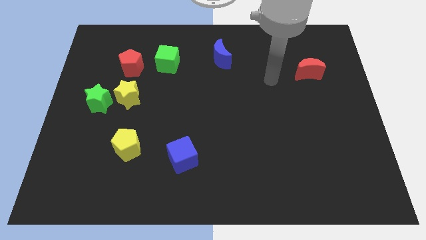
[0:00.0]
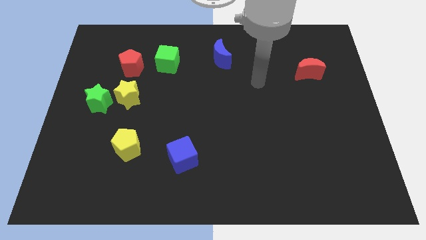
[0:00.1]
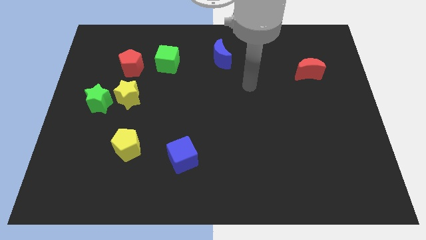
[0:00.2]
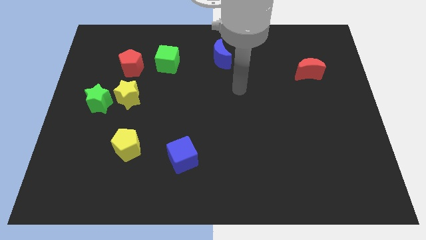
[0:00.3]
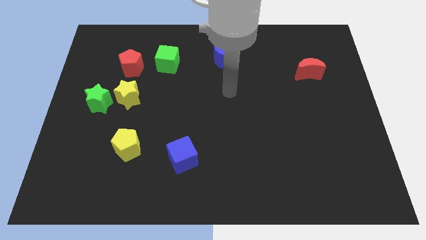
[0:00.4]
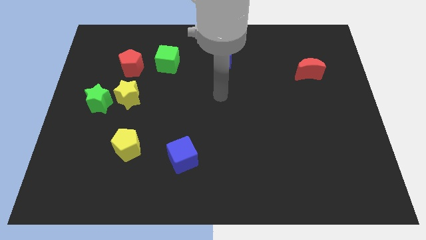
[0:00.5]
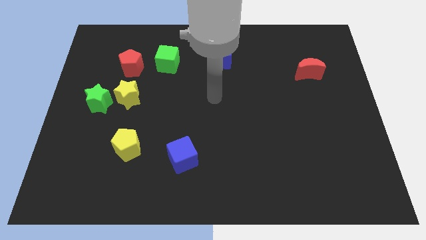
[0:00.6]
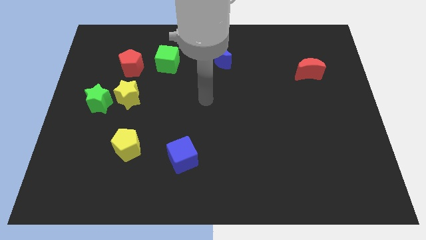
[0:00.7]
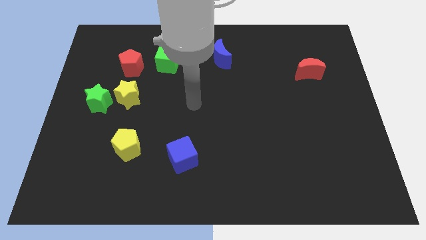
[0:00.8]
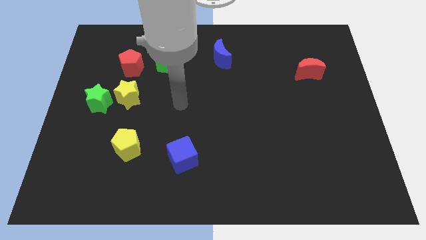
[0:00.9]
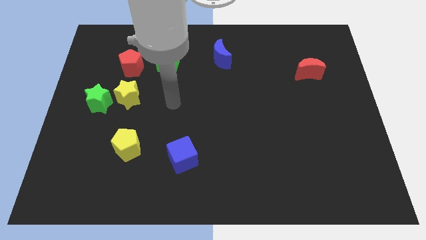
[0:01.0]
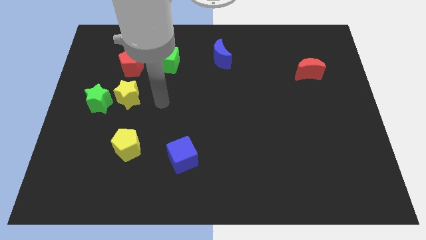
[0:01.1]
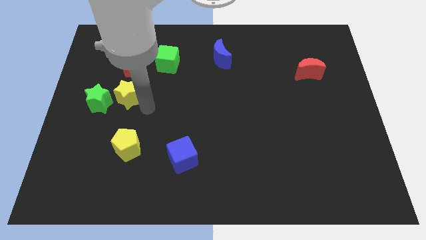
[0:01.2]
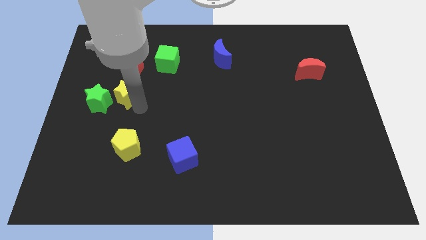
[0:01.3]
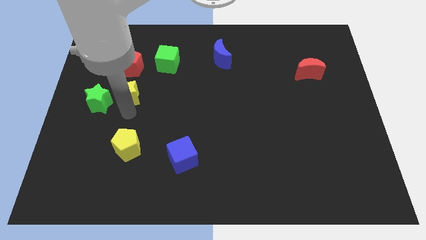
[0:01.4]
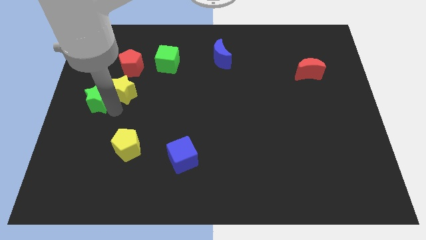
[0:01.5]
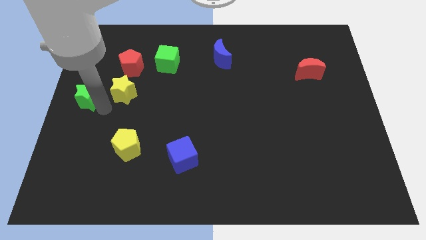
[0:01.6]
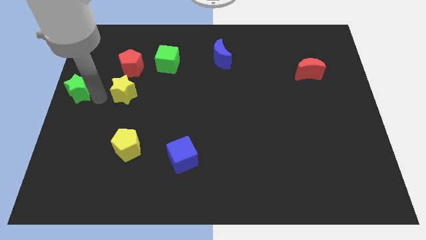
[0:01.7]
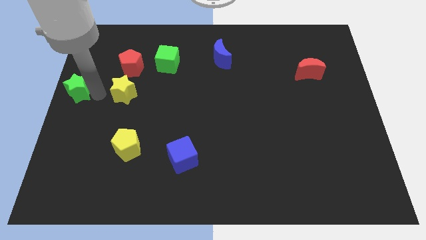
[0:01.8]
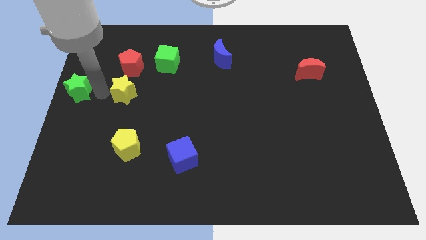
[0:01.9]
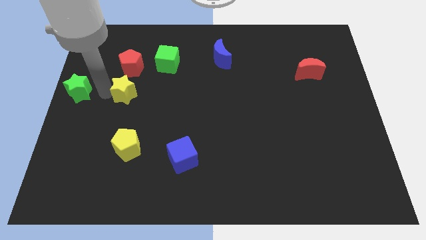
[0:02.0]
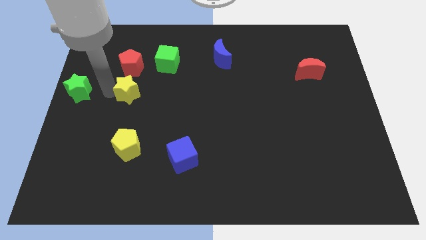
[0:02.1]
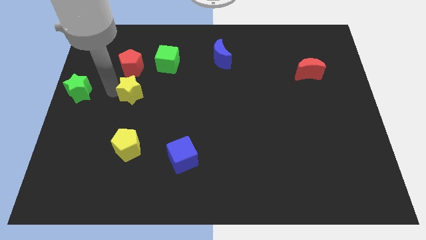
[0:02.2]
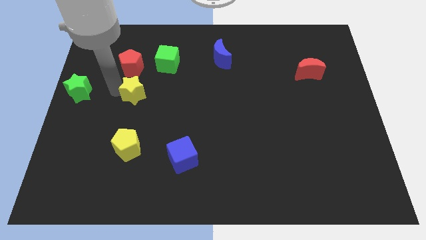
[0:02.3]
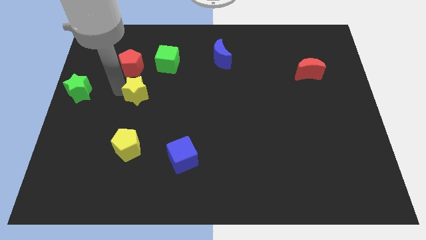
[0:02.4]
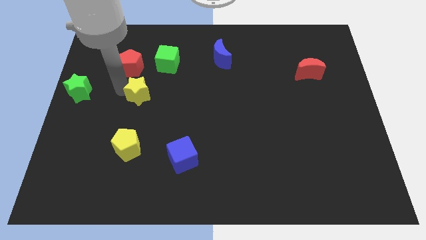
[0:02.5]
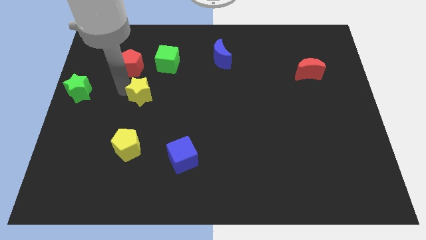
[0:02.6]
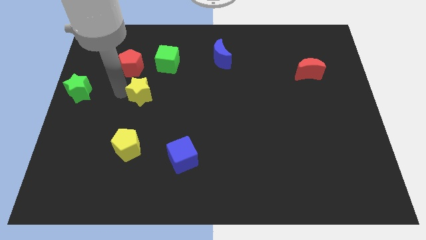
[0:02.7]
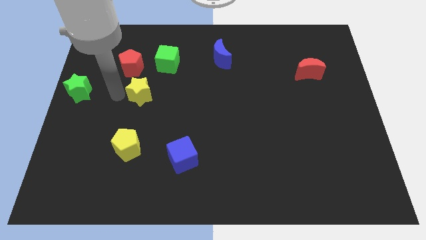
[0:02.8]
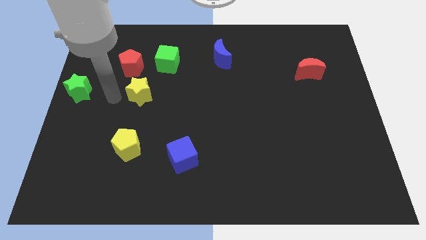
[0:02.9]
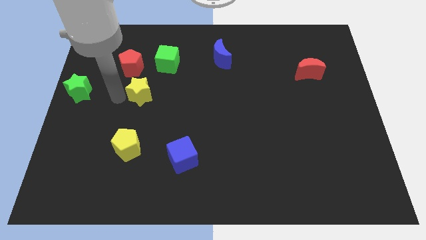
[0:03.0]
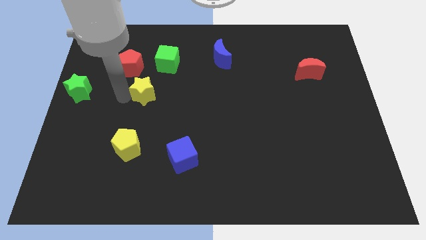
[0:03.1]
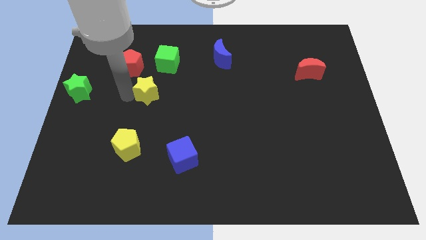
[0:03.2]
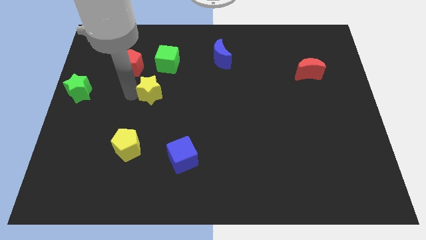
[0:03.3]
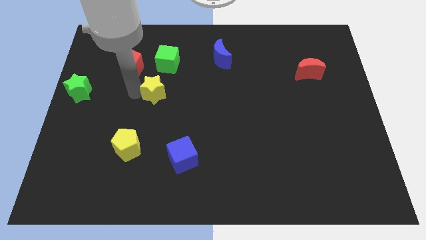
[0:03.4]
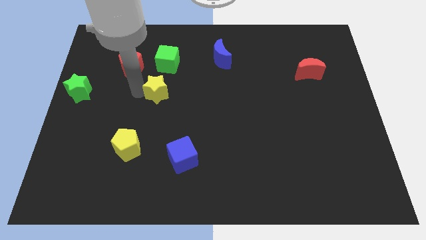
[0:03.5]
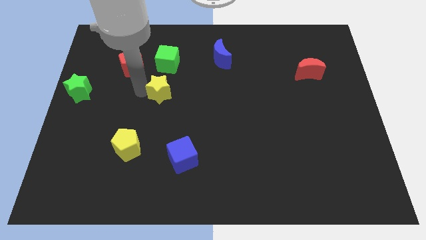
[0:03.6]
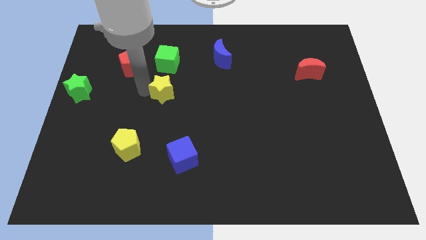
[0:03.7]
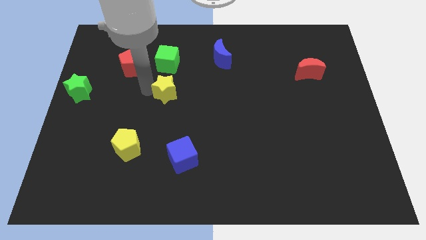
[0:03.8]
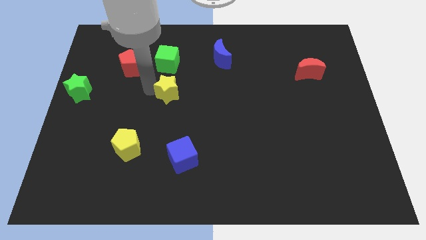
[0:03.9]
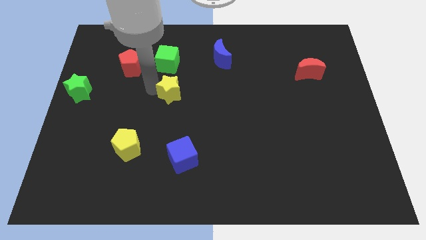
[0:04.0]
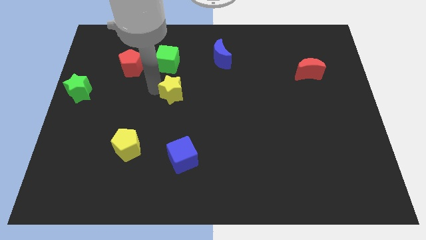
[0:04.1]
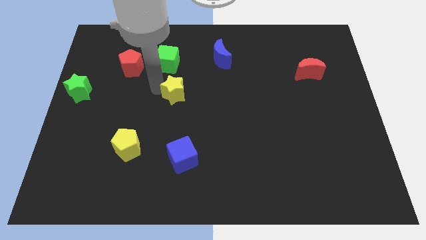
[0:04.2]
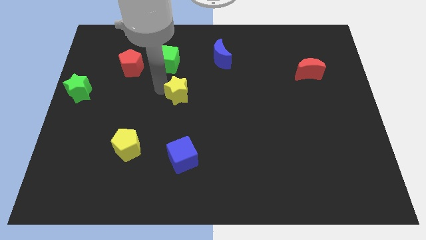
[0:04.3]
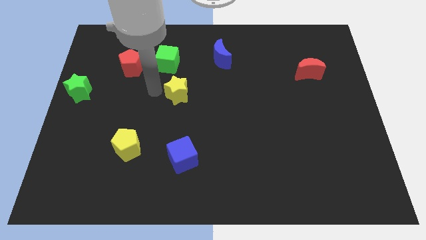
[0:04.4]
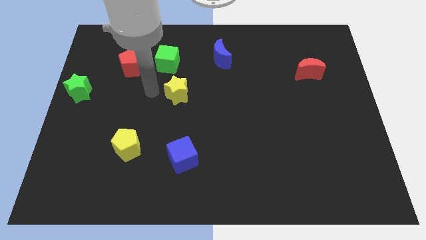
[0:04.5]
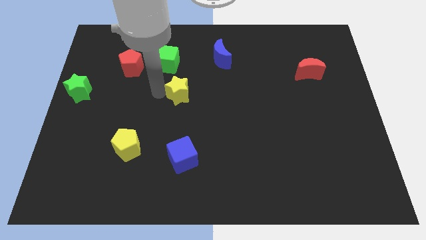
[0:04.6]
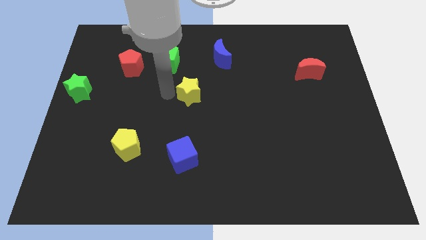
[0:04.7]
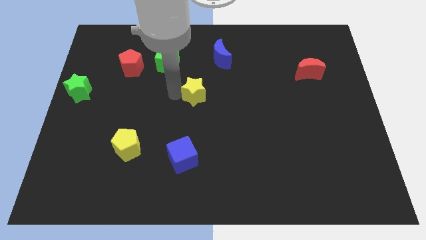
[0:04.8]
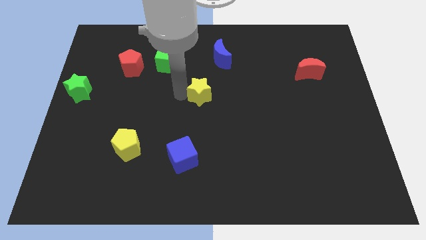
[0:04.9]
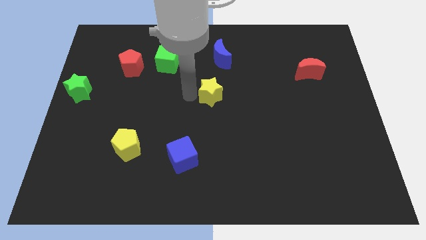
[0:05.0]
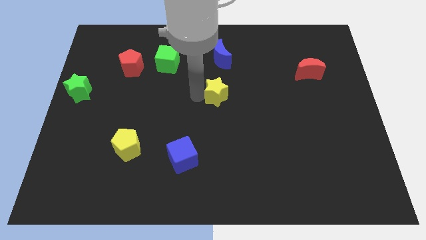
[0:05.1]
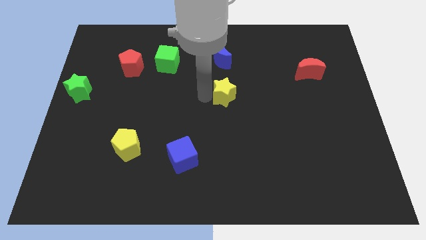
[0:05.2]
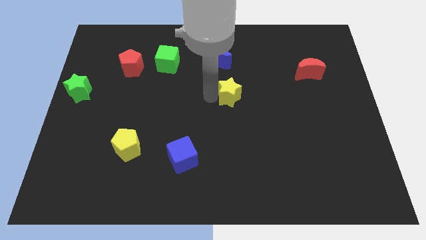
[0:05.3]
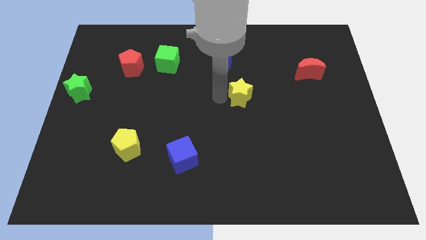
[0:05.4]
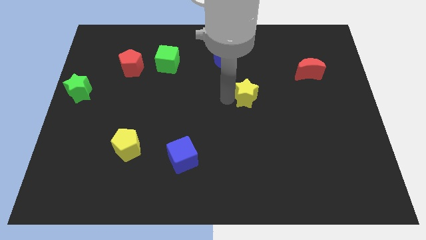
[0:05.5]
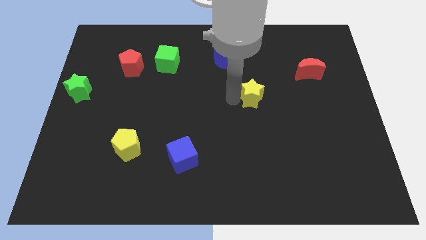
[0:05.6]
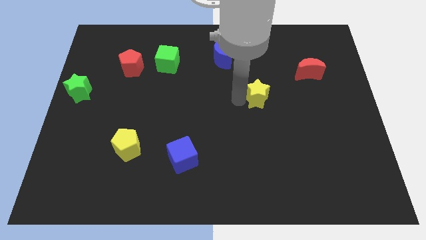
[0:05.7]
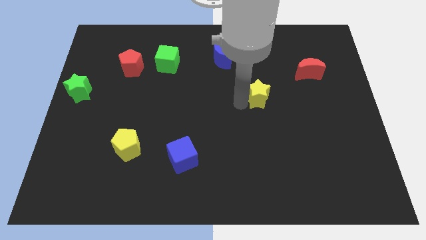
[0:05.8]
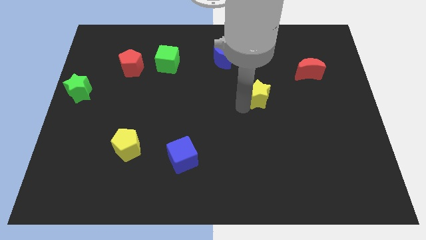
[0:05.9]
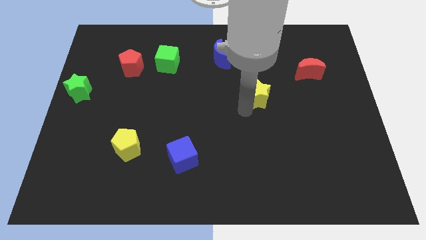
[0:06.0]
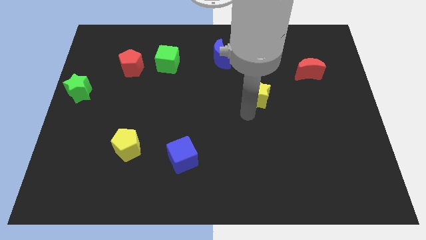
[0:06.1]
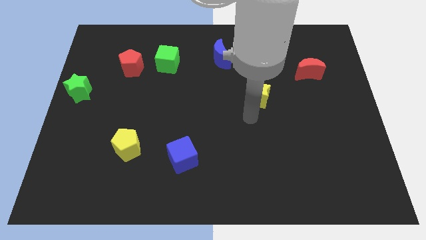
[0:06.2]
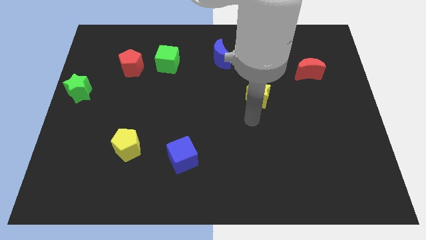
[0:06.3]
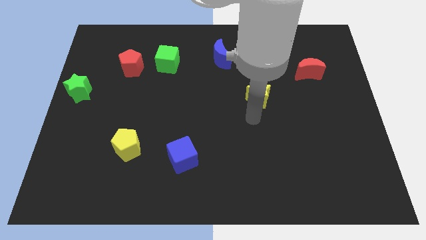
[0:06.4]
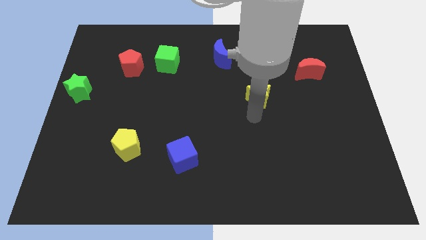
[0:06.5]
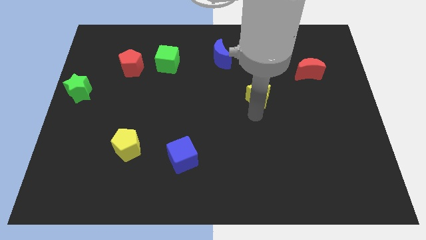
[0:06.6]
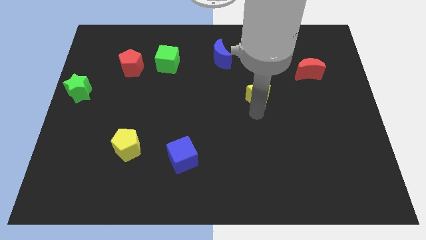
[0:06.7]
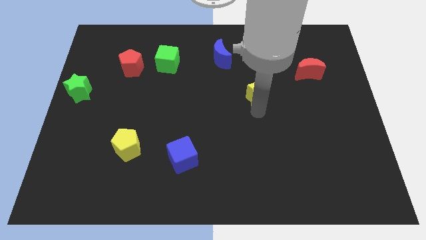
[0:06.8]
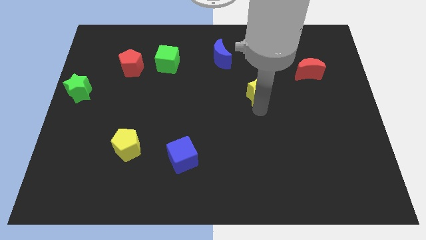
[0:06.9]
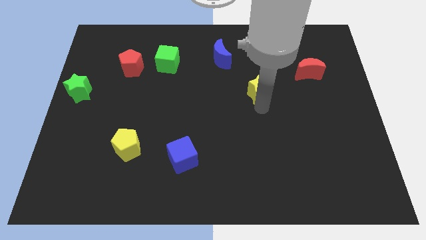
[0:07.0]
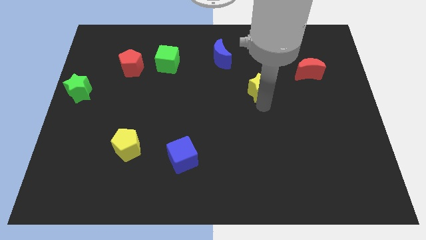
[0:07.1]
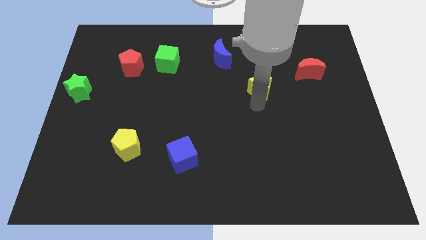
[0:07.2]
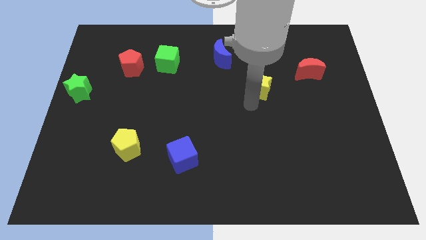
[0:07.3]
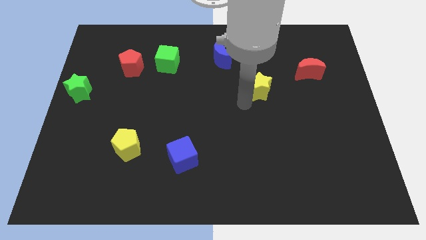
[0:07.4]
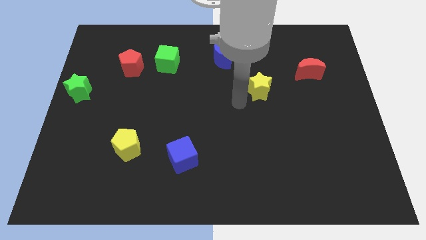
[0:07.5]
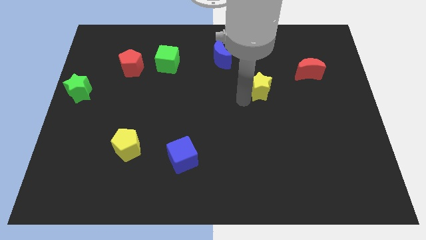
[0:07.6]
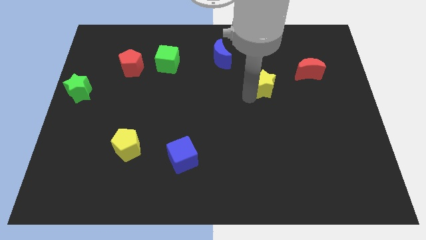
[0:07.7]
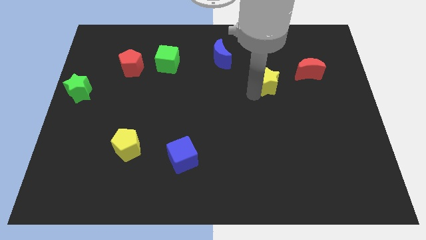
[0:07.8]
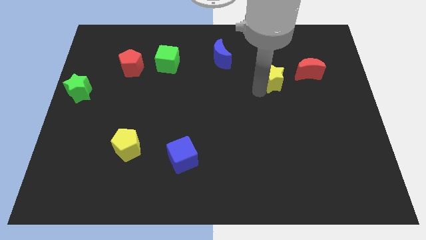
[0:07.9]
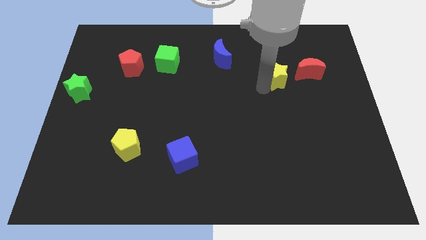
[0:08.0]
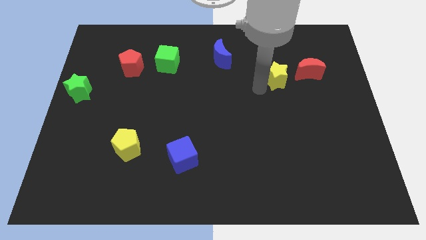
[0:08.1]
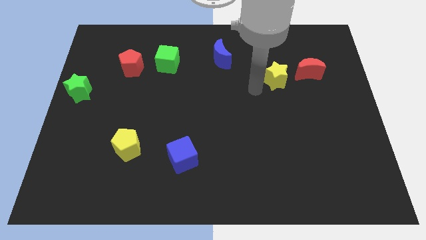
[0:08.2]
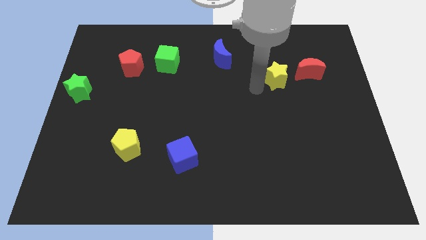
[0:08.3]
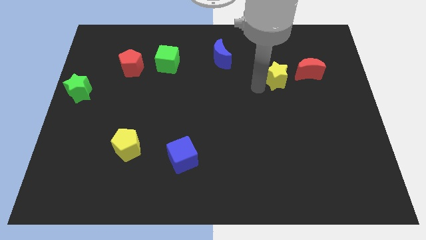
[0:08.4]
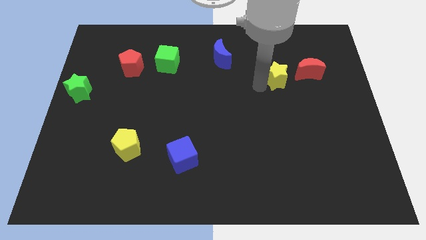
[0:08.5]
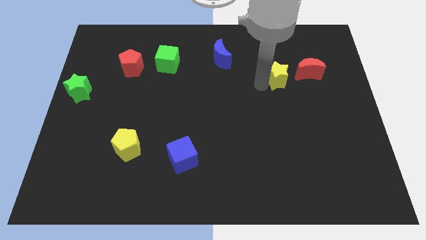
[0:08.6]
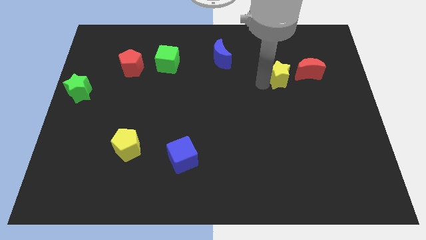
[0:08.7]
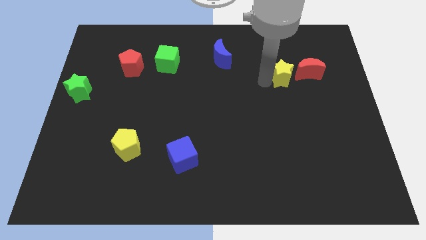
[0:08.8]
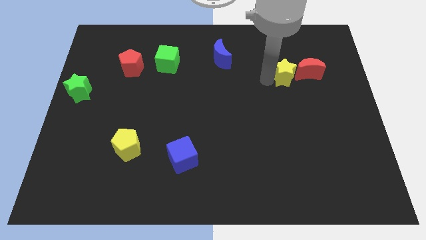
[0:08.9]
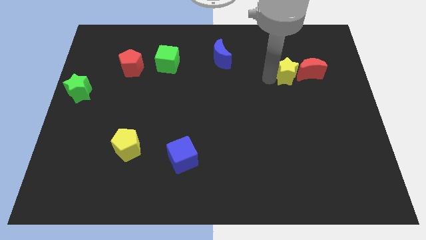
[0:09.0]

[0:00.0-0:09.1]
put the yellow star close to the red moon
